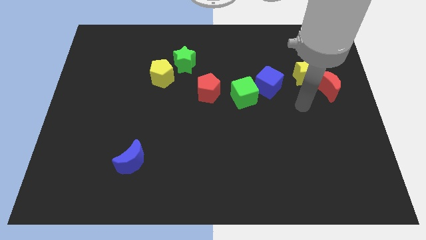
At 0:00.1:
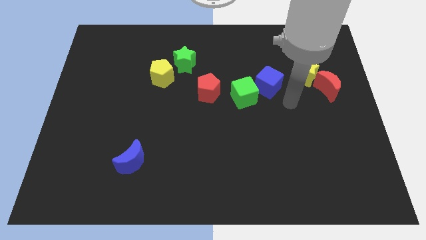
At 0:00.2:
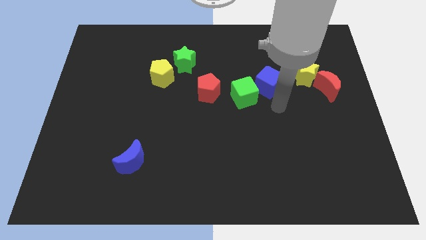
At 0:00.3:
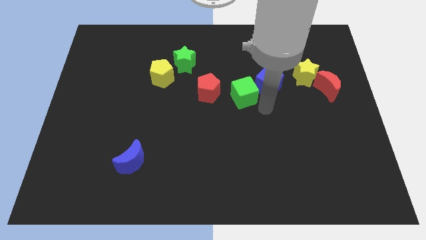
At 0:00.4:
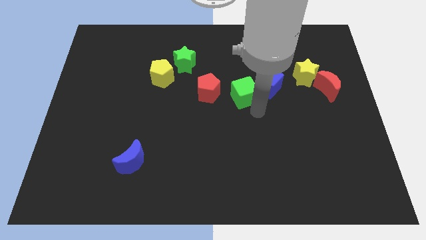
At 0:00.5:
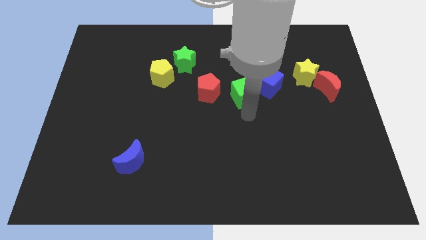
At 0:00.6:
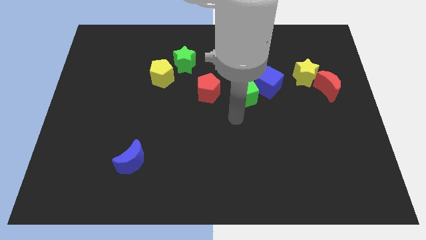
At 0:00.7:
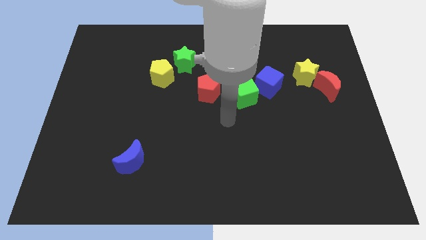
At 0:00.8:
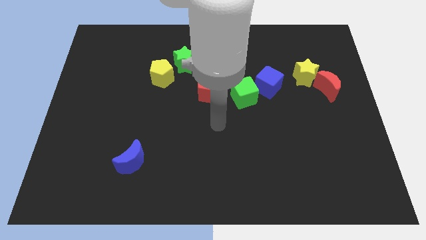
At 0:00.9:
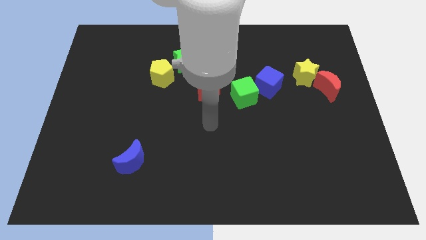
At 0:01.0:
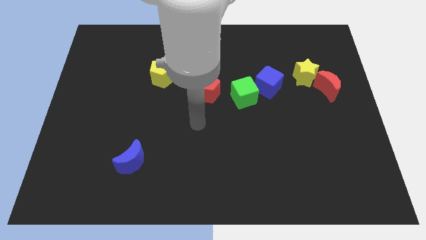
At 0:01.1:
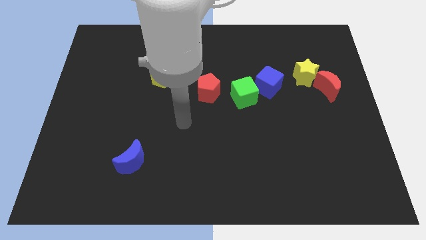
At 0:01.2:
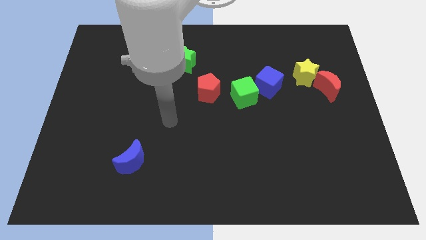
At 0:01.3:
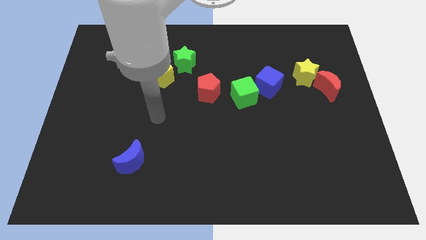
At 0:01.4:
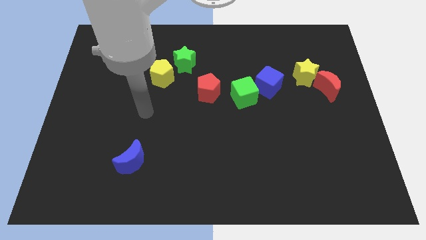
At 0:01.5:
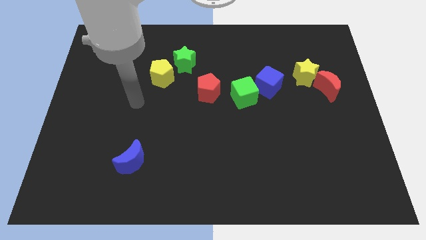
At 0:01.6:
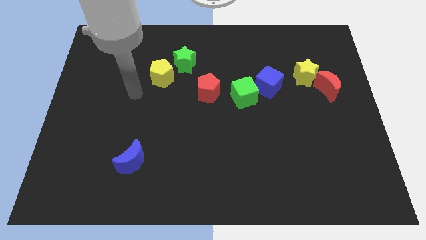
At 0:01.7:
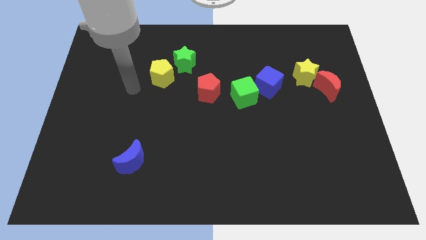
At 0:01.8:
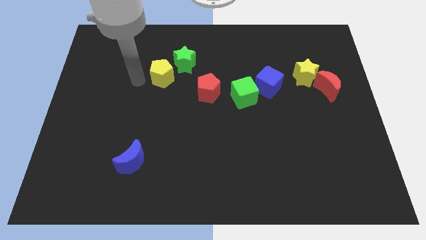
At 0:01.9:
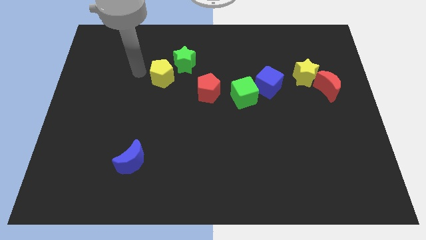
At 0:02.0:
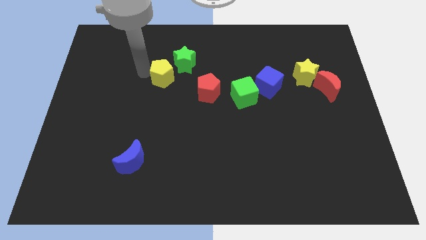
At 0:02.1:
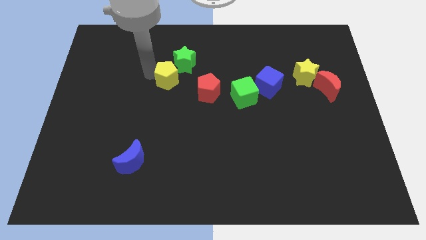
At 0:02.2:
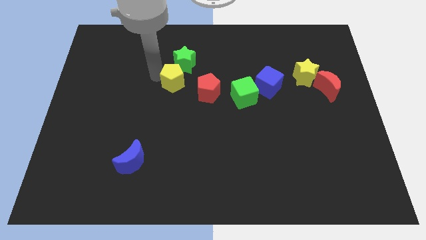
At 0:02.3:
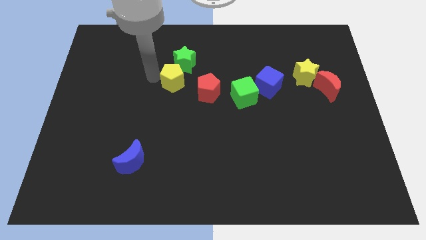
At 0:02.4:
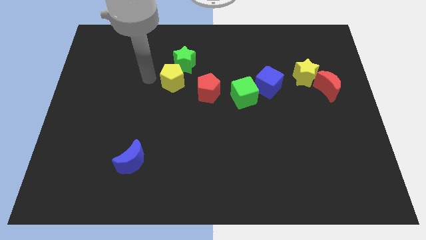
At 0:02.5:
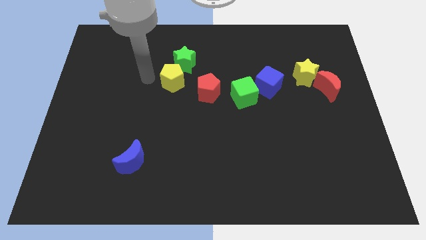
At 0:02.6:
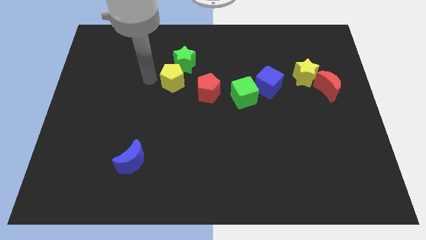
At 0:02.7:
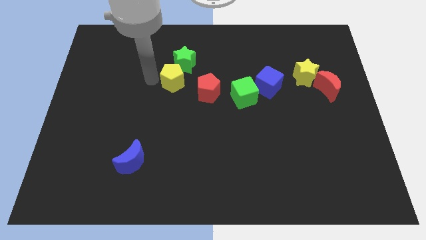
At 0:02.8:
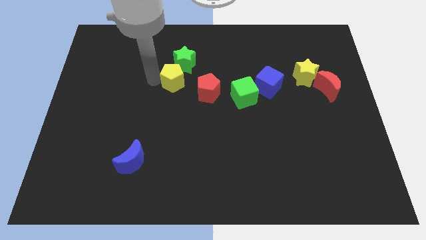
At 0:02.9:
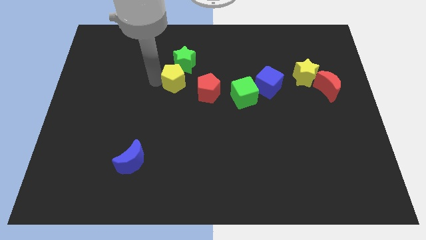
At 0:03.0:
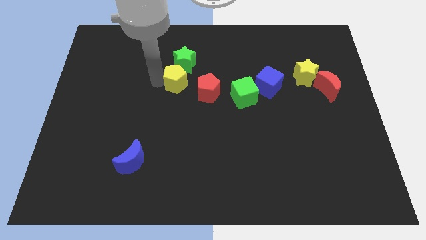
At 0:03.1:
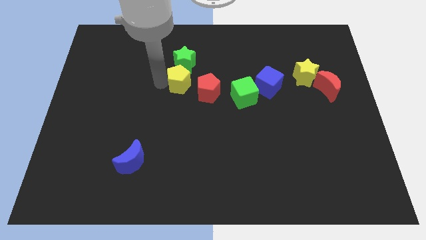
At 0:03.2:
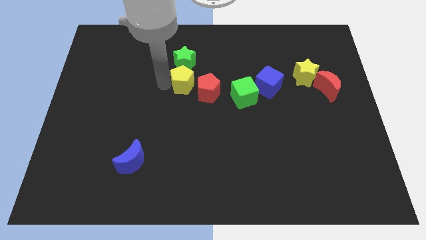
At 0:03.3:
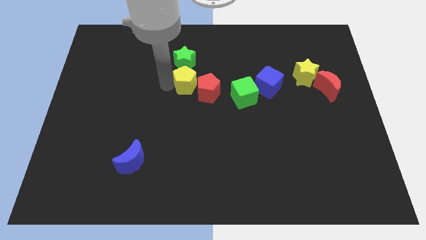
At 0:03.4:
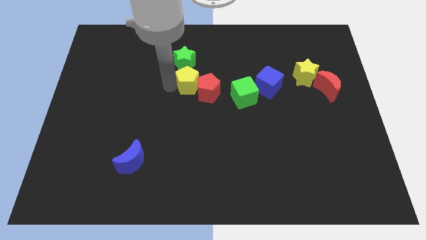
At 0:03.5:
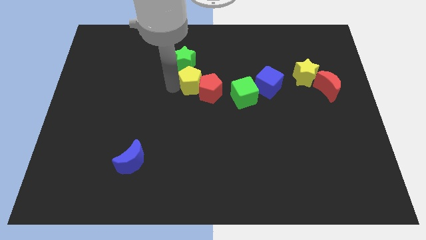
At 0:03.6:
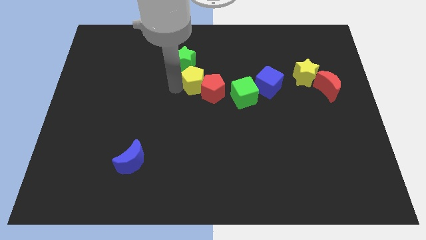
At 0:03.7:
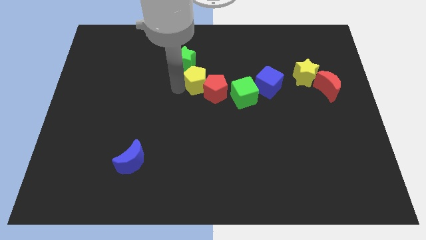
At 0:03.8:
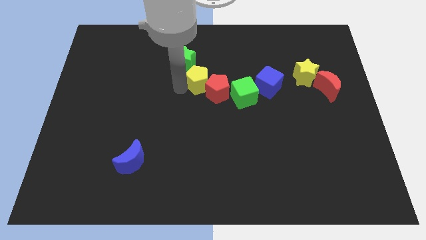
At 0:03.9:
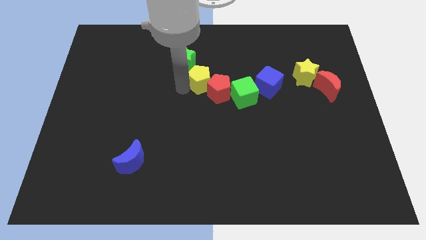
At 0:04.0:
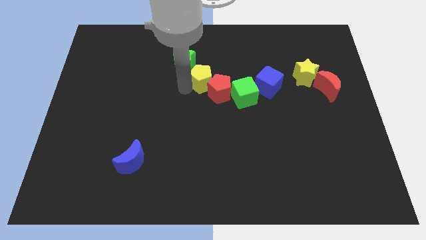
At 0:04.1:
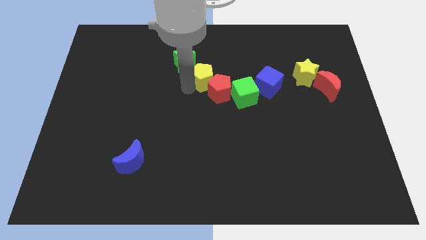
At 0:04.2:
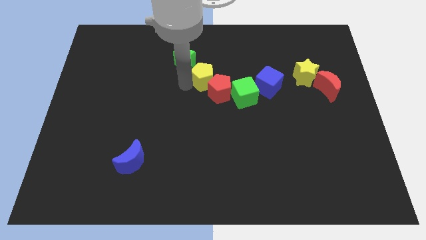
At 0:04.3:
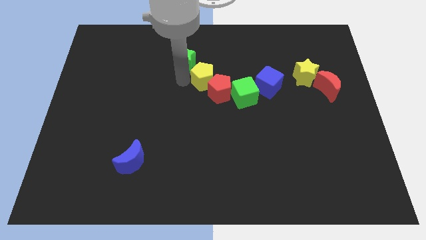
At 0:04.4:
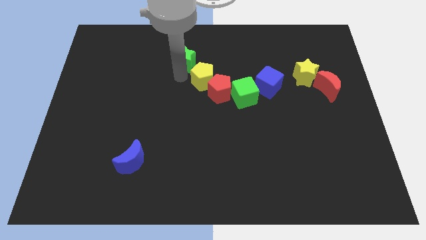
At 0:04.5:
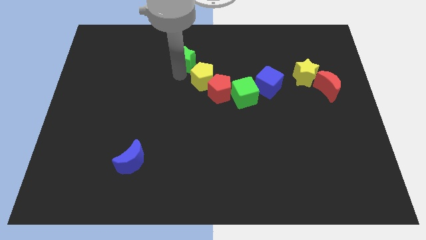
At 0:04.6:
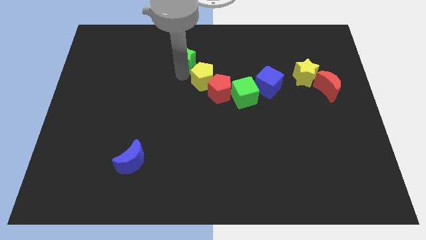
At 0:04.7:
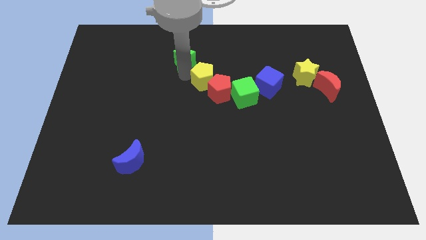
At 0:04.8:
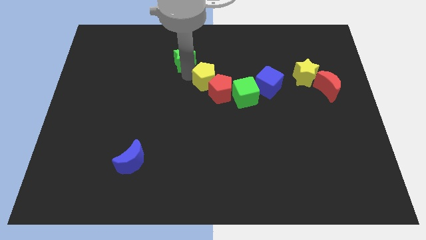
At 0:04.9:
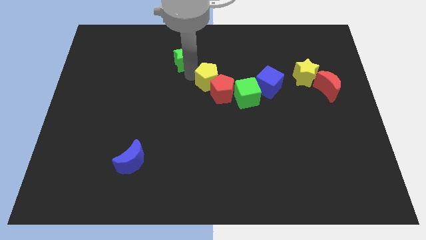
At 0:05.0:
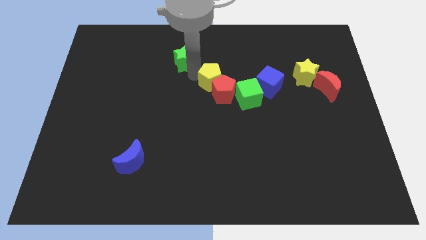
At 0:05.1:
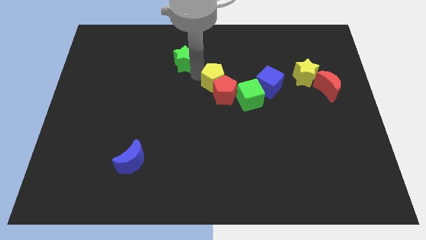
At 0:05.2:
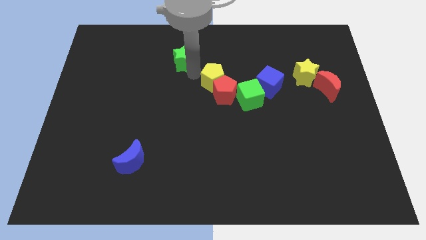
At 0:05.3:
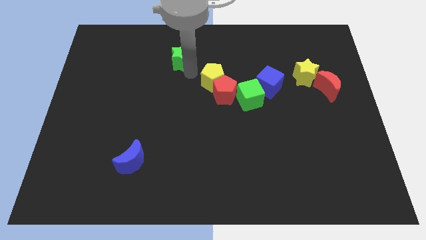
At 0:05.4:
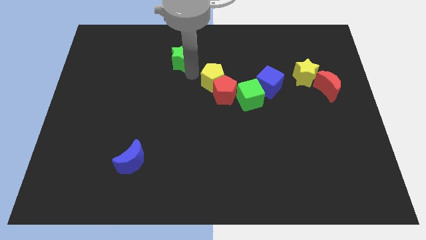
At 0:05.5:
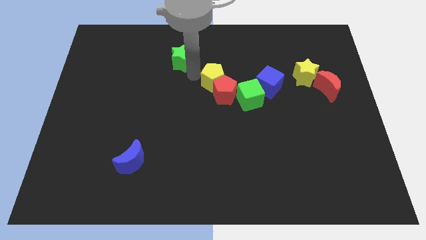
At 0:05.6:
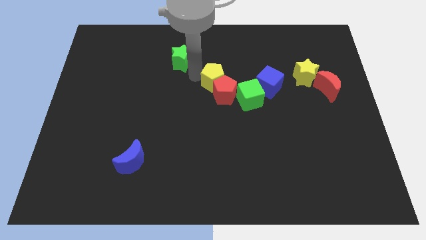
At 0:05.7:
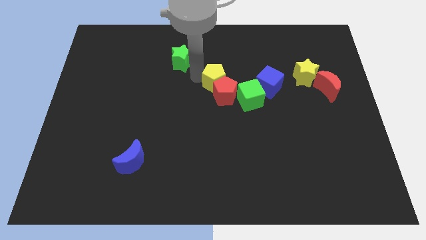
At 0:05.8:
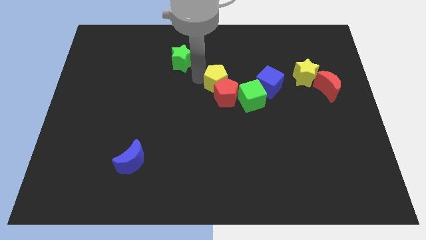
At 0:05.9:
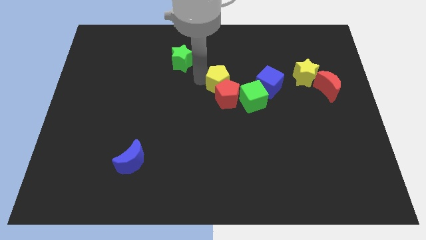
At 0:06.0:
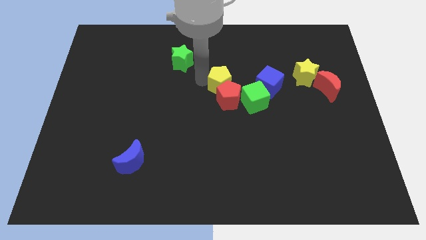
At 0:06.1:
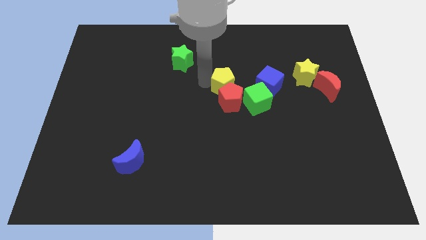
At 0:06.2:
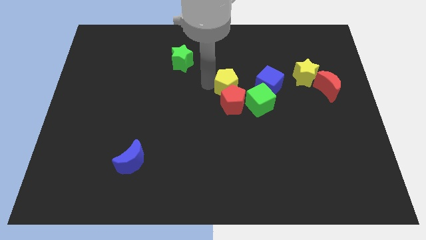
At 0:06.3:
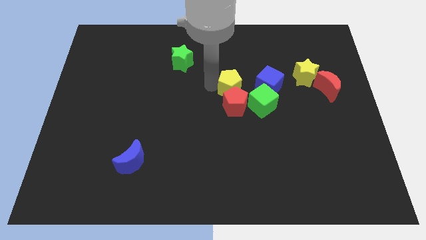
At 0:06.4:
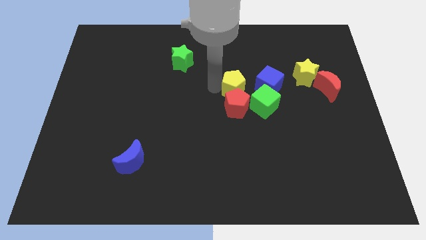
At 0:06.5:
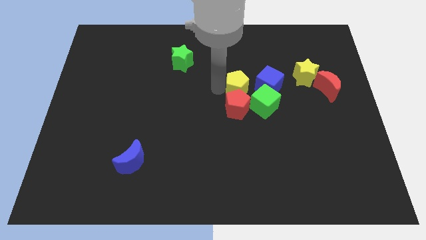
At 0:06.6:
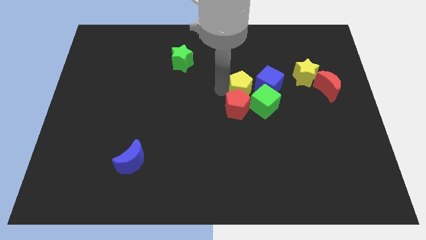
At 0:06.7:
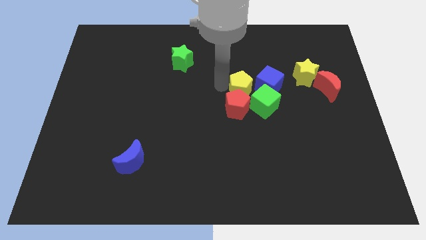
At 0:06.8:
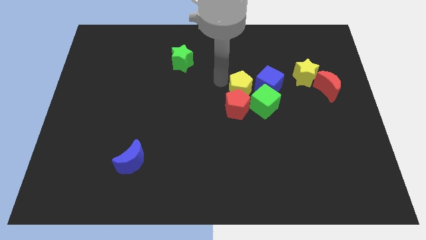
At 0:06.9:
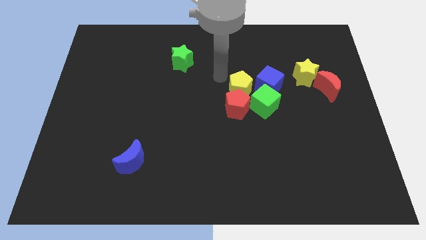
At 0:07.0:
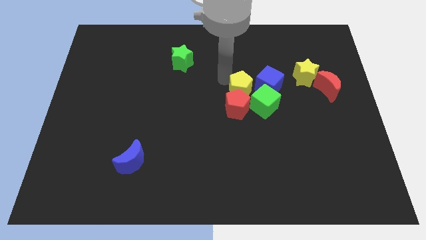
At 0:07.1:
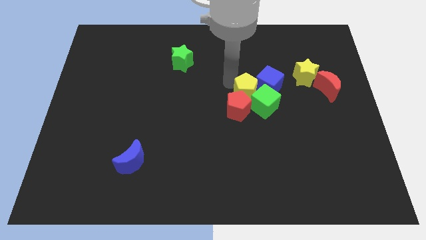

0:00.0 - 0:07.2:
push the yellow pentagon next to the green cube
